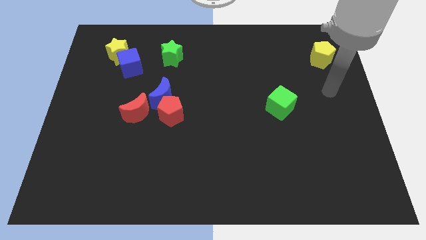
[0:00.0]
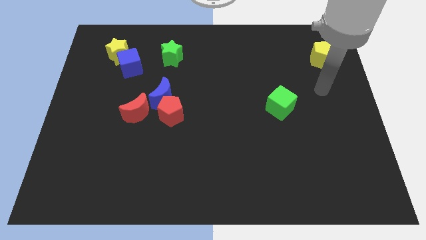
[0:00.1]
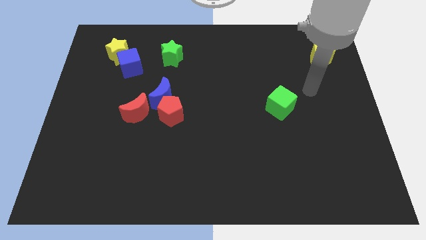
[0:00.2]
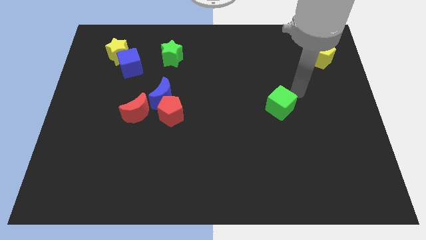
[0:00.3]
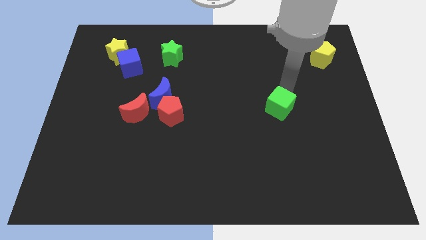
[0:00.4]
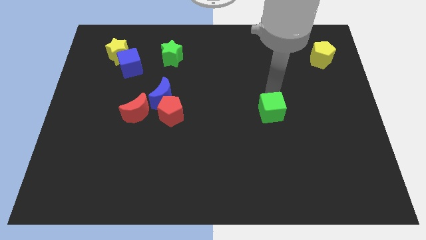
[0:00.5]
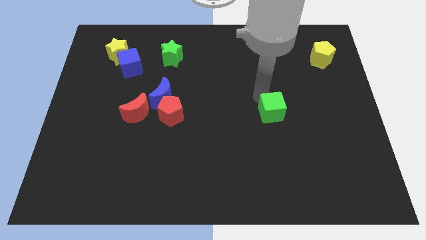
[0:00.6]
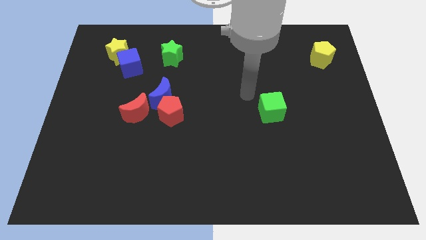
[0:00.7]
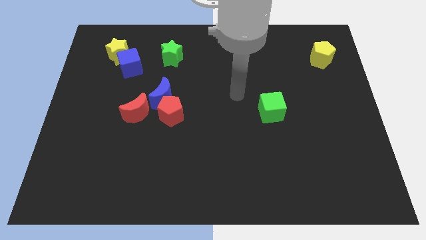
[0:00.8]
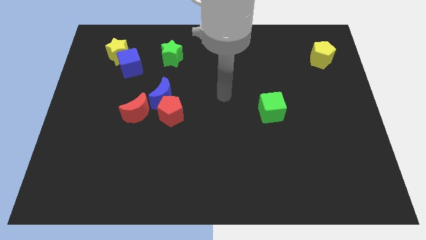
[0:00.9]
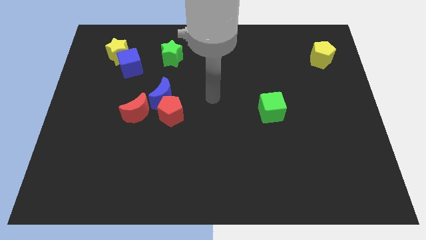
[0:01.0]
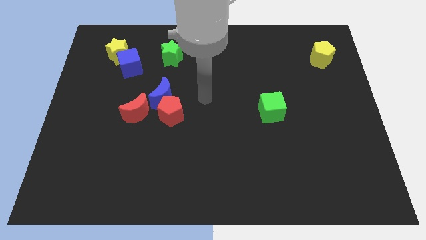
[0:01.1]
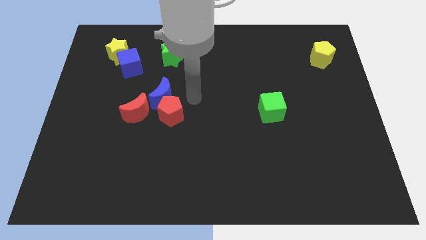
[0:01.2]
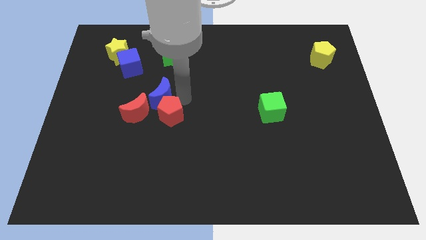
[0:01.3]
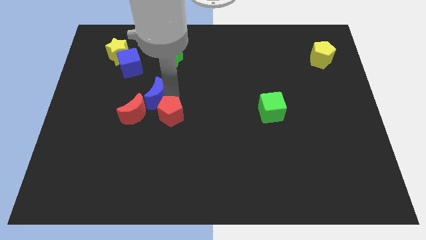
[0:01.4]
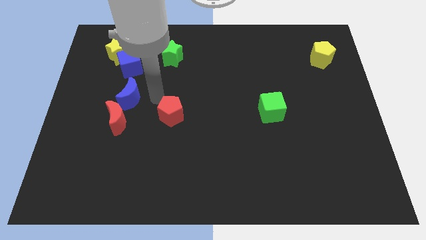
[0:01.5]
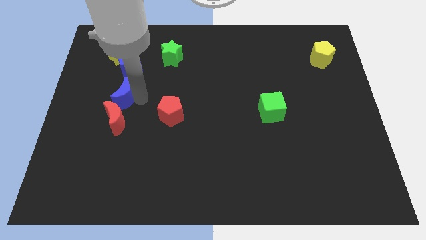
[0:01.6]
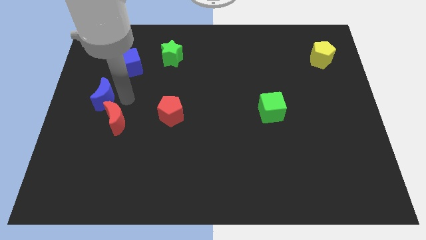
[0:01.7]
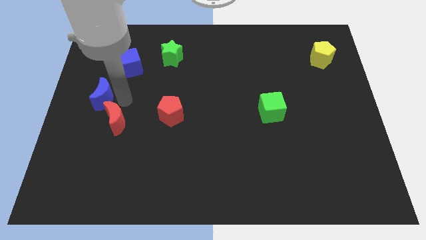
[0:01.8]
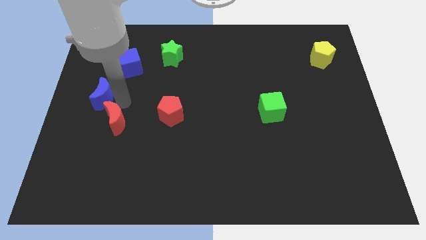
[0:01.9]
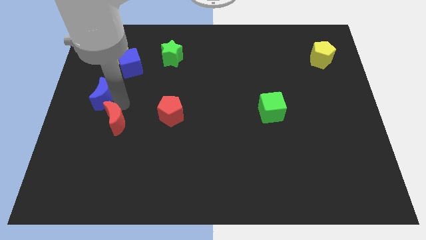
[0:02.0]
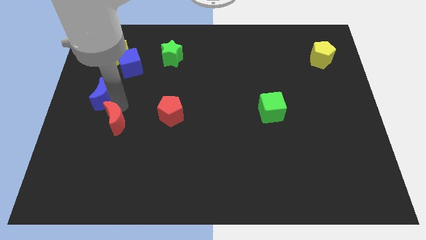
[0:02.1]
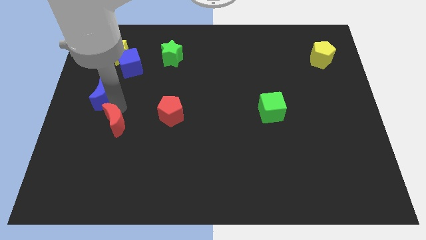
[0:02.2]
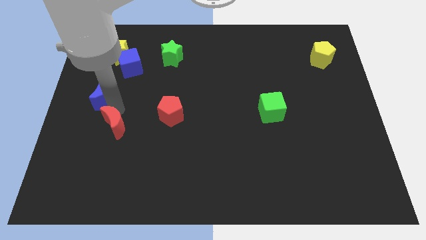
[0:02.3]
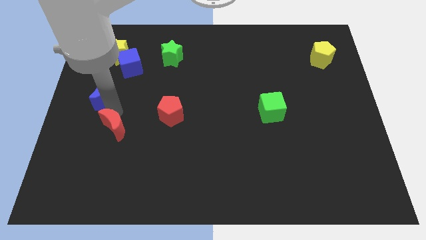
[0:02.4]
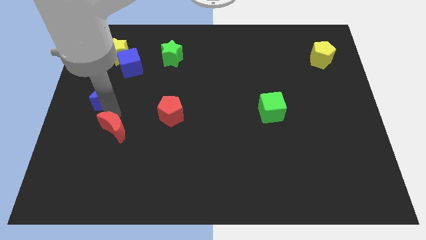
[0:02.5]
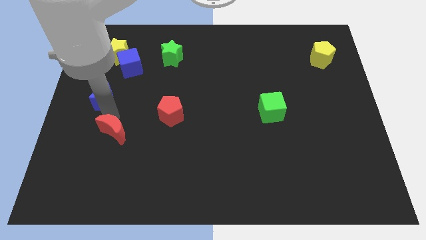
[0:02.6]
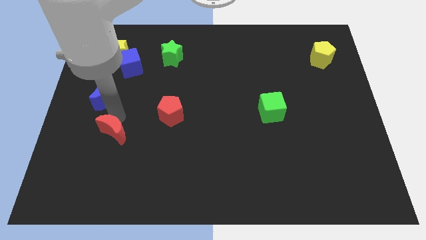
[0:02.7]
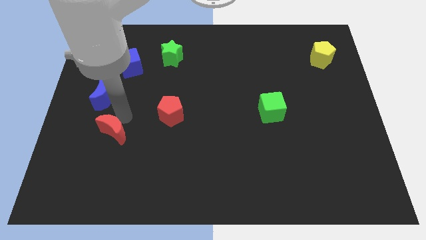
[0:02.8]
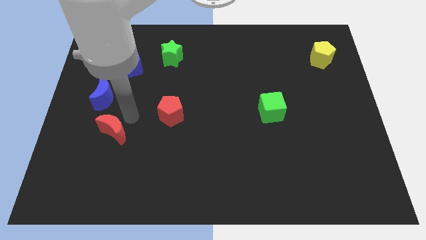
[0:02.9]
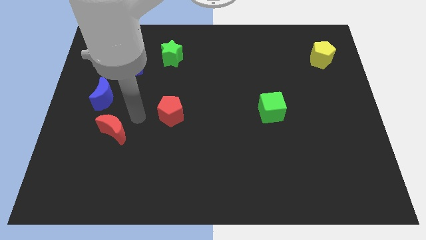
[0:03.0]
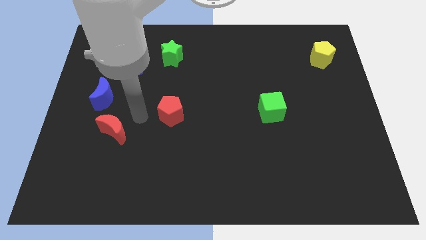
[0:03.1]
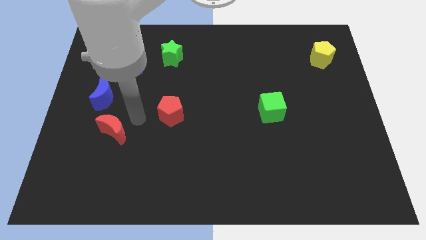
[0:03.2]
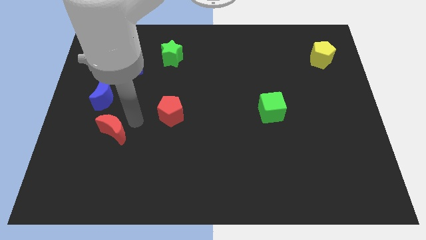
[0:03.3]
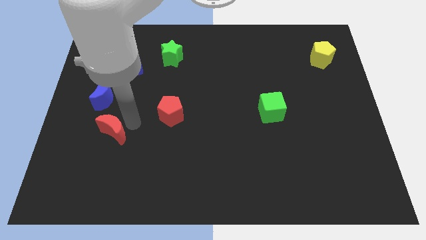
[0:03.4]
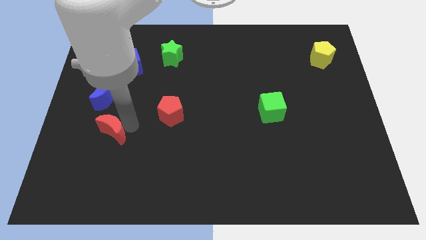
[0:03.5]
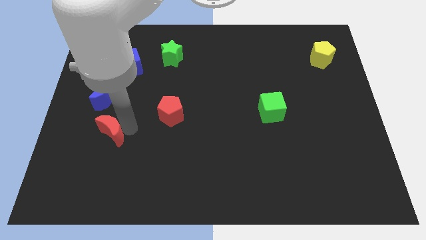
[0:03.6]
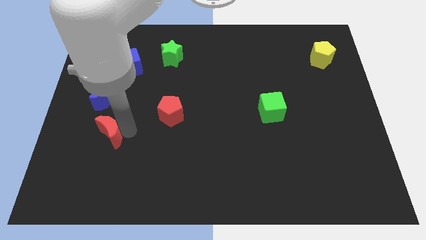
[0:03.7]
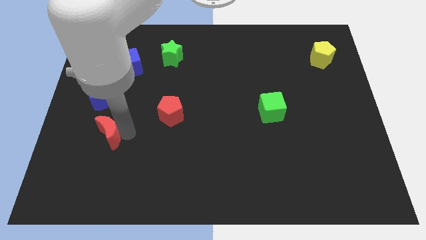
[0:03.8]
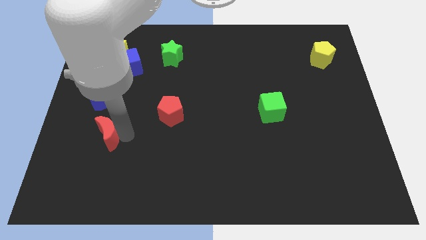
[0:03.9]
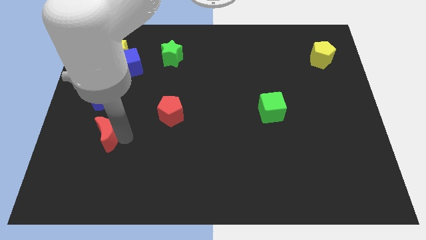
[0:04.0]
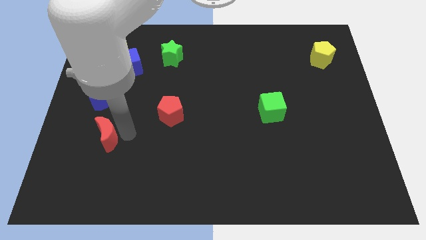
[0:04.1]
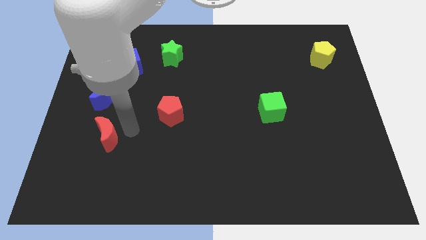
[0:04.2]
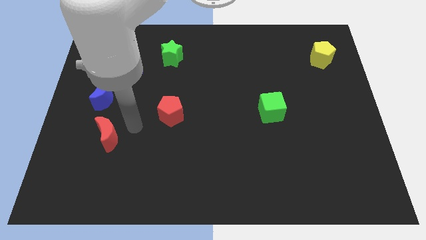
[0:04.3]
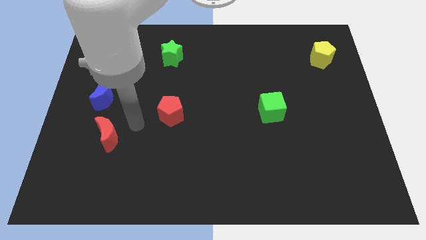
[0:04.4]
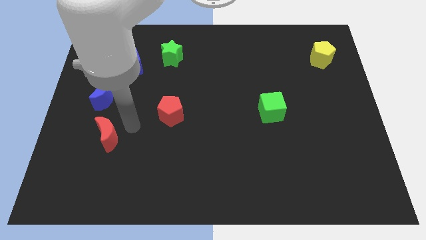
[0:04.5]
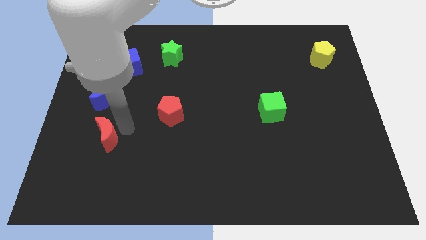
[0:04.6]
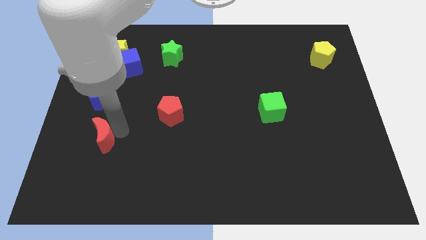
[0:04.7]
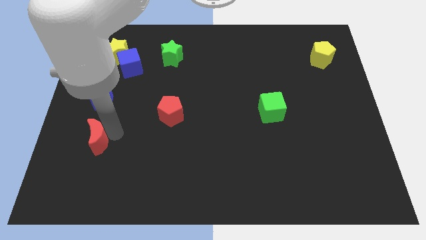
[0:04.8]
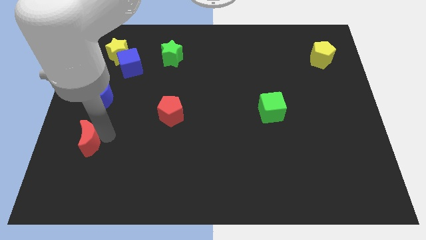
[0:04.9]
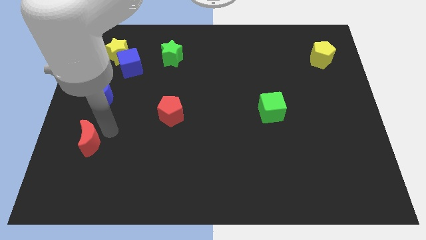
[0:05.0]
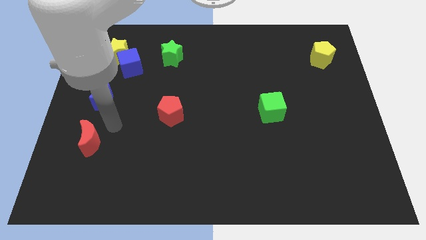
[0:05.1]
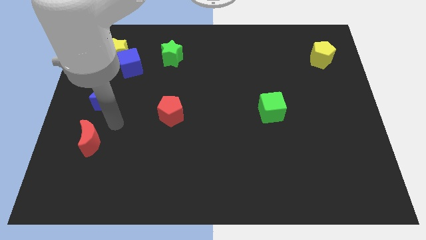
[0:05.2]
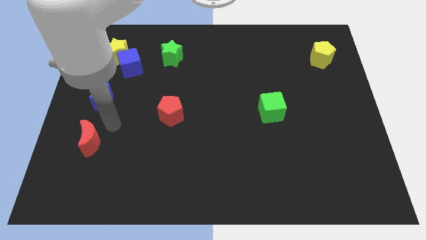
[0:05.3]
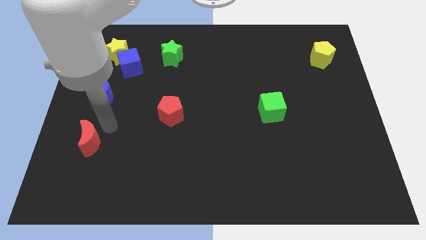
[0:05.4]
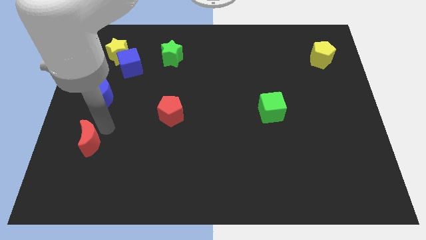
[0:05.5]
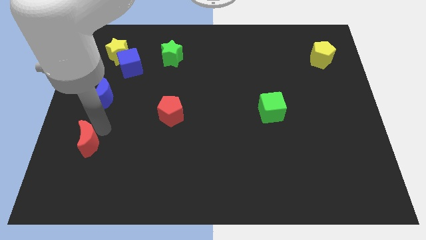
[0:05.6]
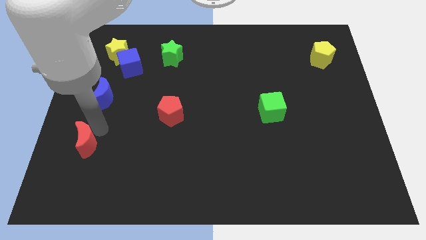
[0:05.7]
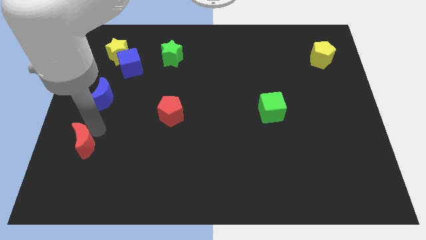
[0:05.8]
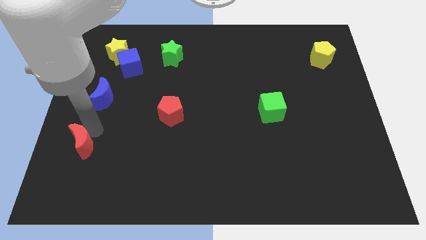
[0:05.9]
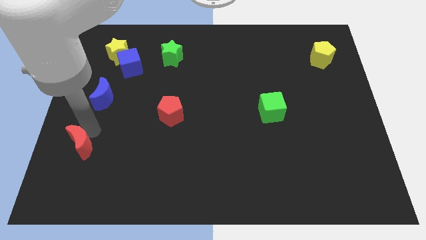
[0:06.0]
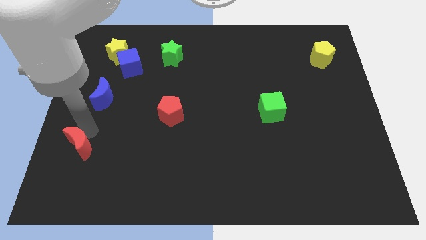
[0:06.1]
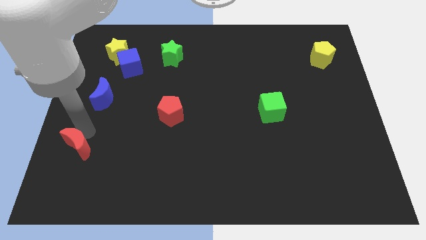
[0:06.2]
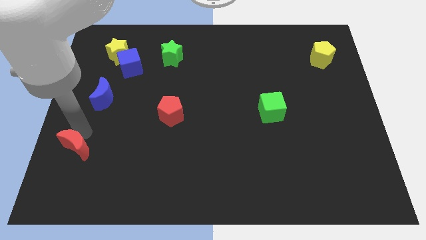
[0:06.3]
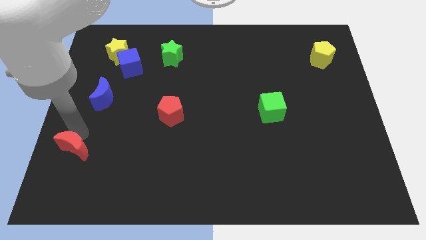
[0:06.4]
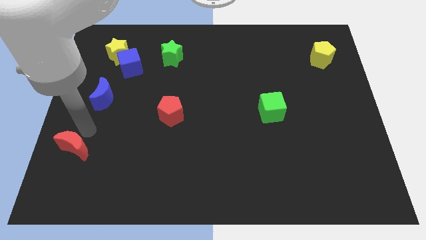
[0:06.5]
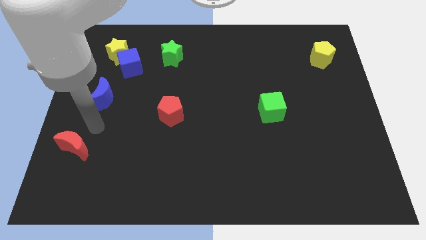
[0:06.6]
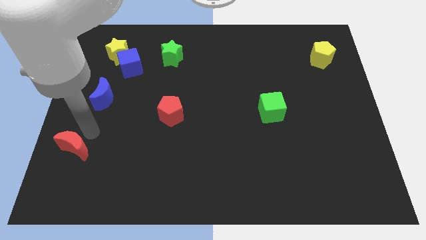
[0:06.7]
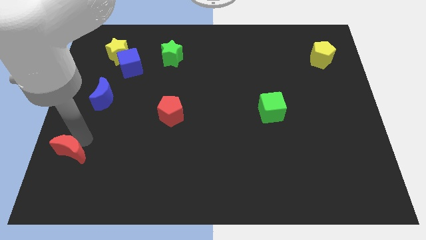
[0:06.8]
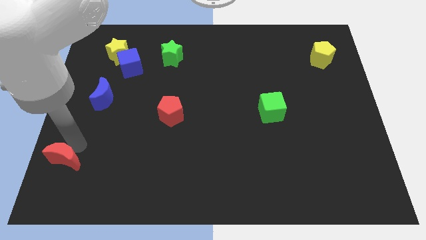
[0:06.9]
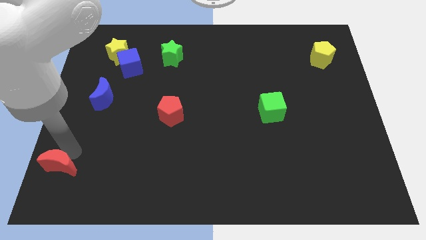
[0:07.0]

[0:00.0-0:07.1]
slide the red moon to the lower left corner

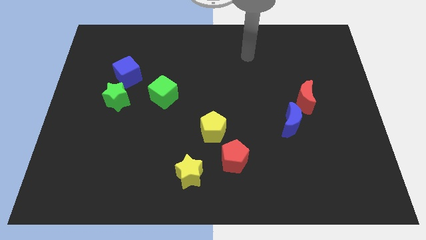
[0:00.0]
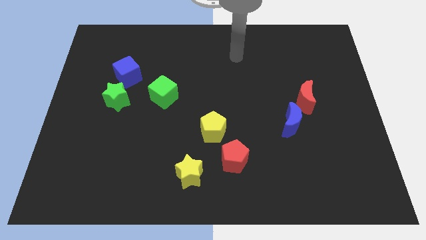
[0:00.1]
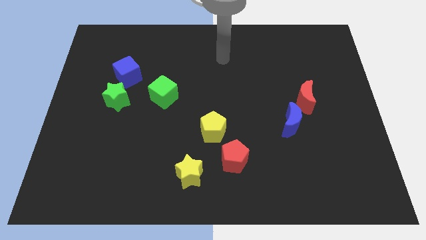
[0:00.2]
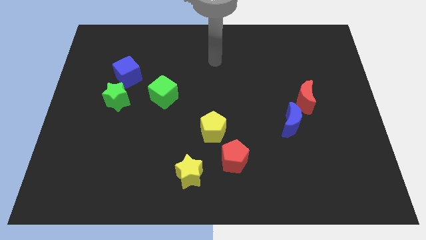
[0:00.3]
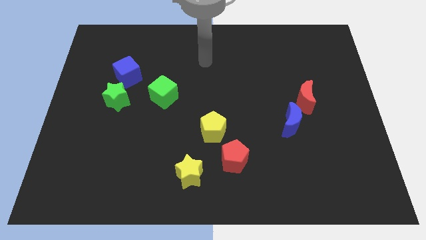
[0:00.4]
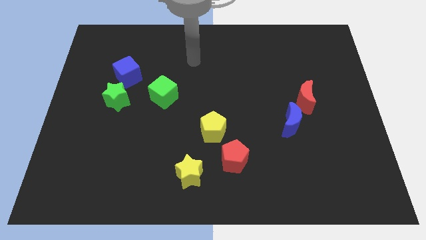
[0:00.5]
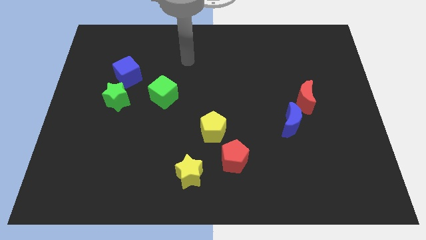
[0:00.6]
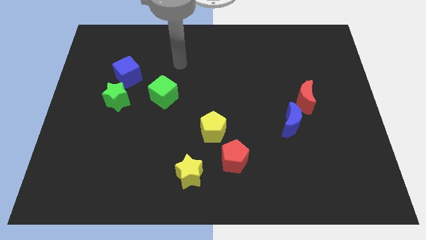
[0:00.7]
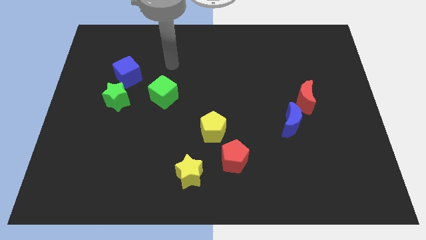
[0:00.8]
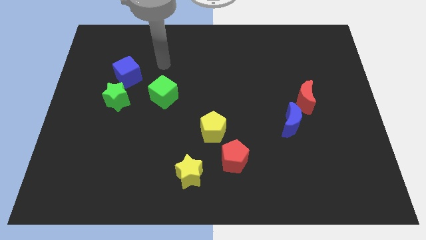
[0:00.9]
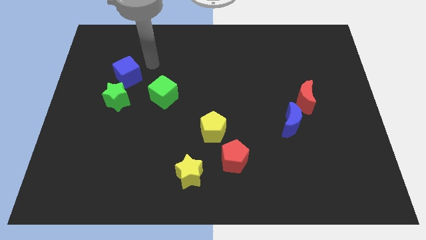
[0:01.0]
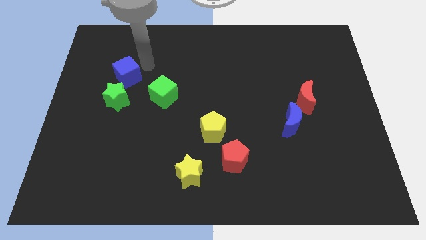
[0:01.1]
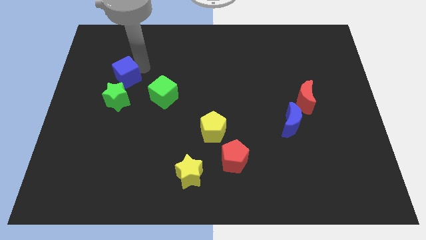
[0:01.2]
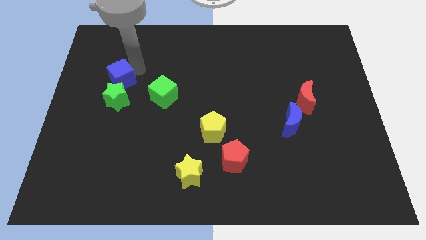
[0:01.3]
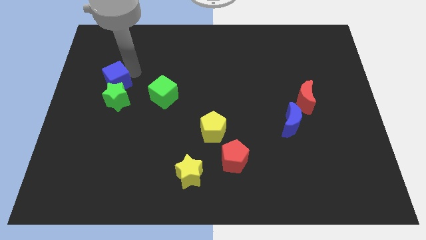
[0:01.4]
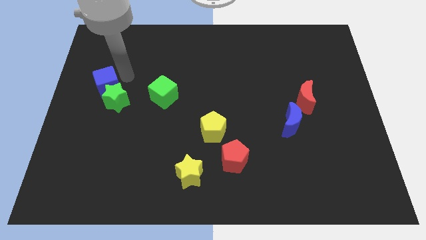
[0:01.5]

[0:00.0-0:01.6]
slide the blue cube to the left side of the board
